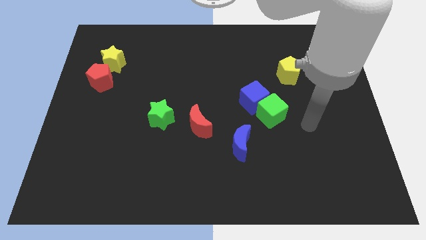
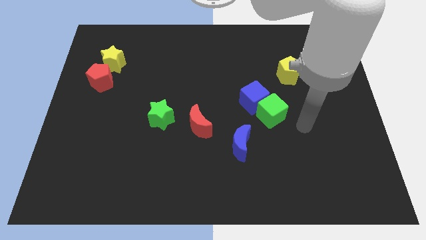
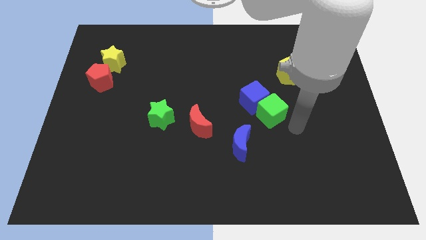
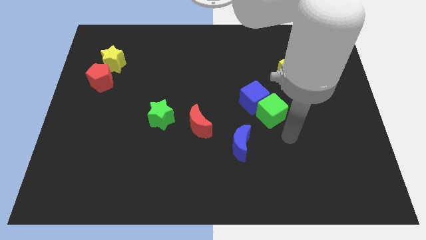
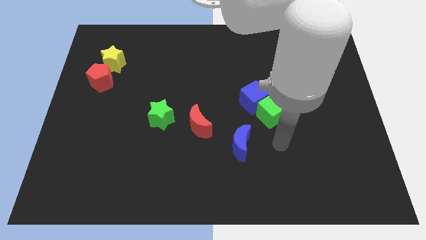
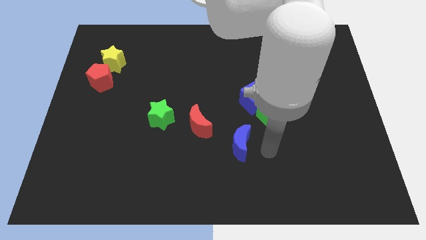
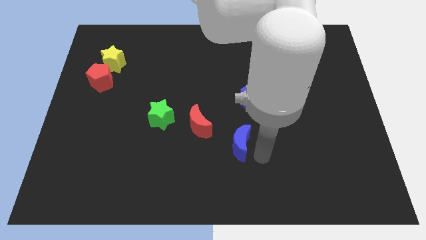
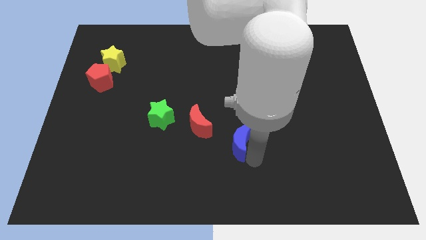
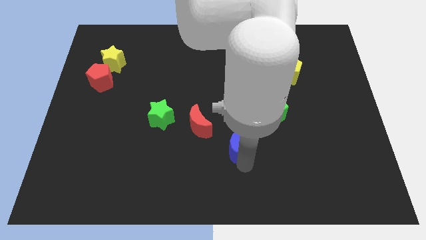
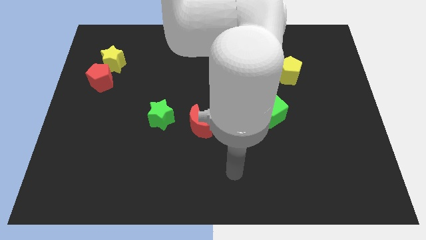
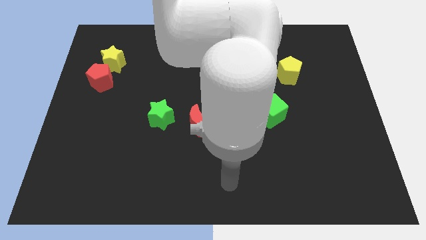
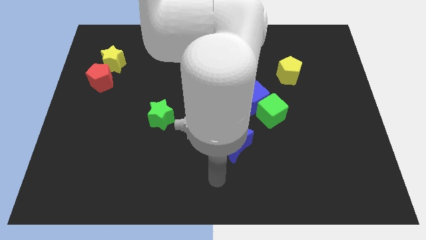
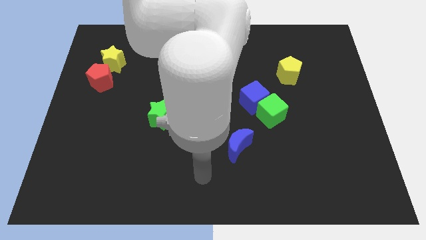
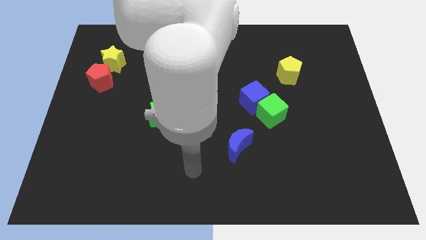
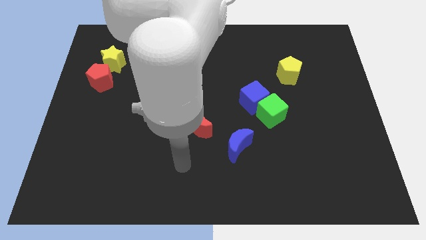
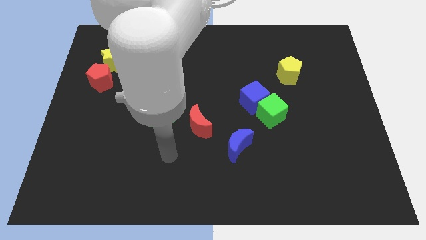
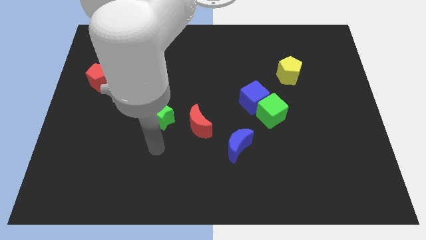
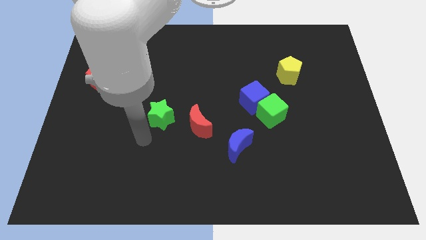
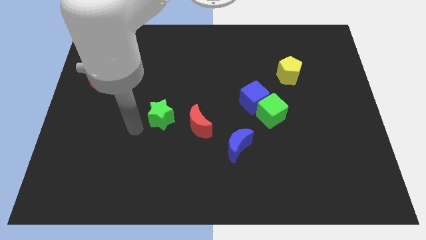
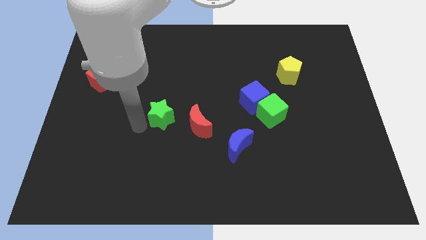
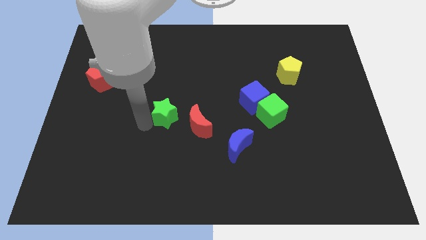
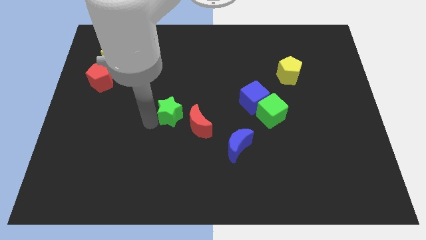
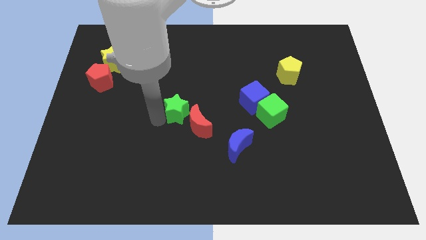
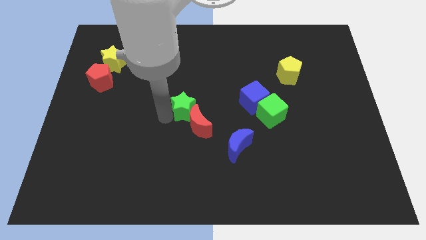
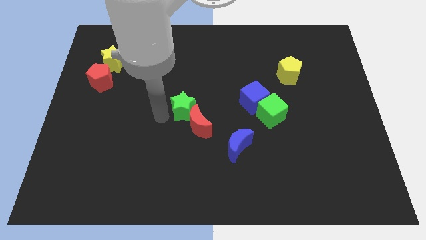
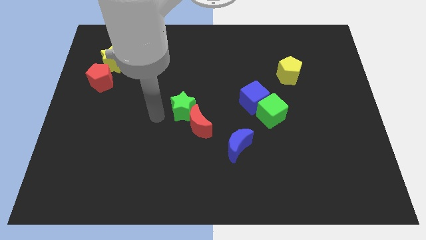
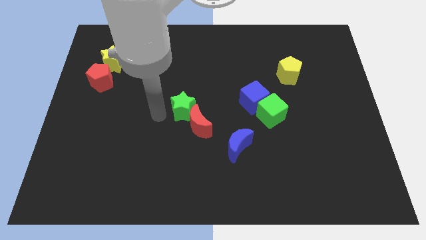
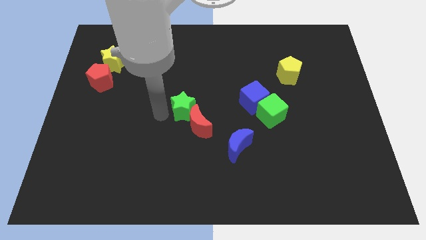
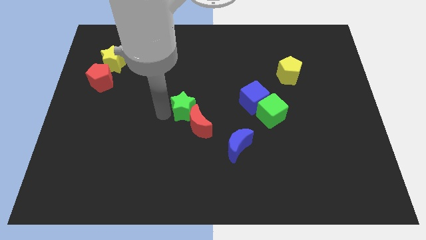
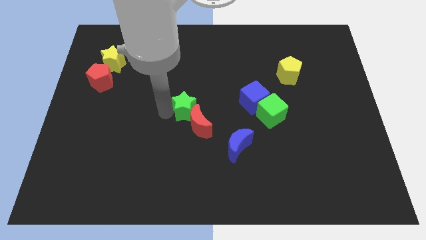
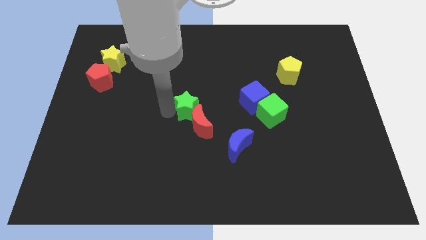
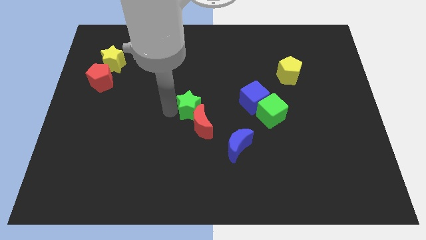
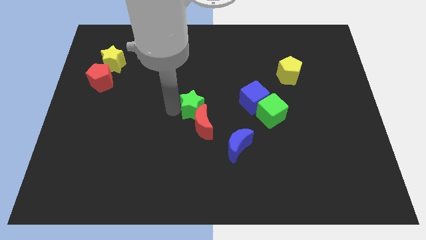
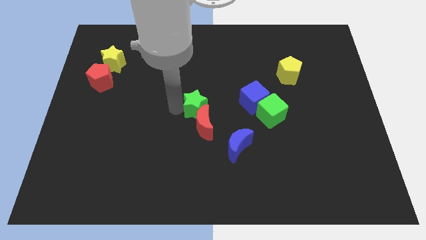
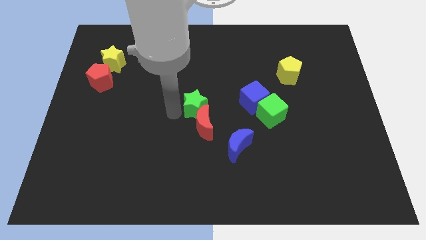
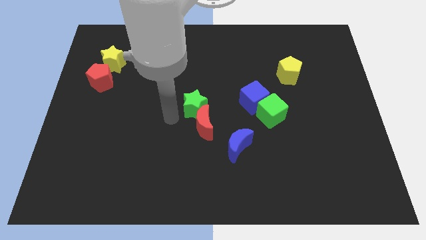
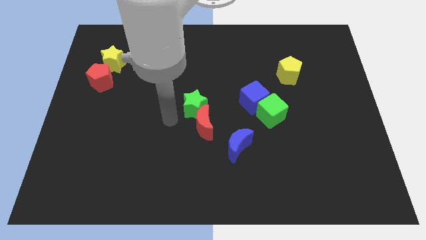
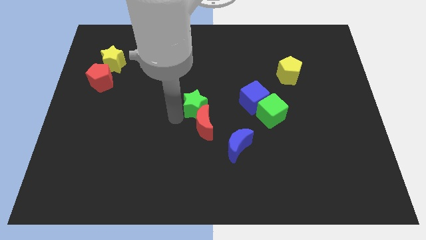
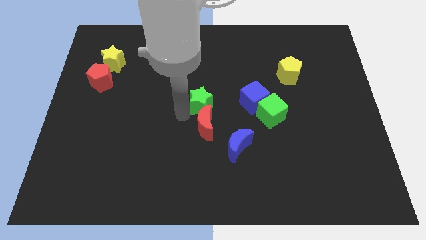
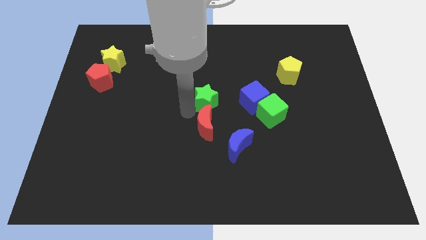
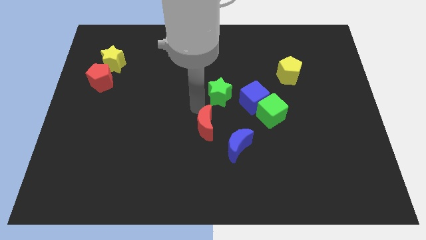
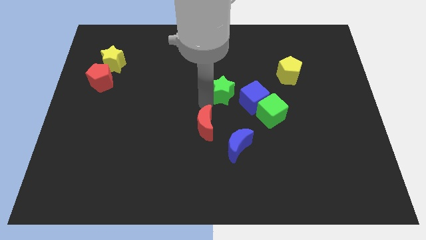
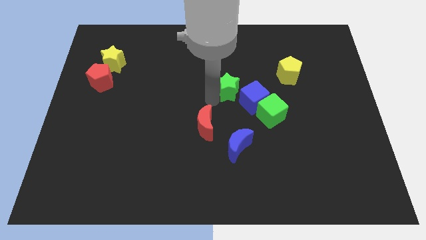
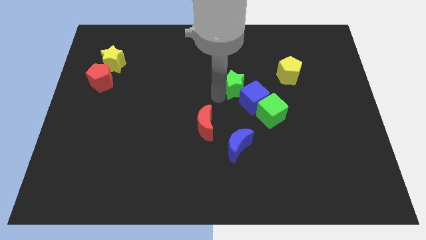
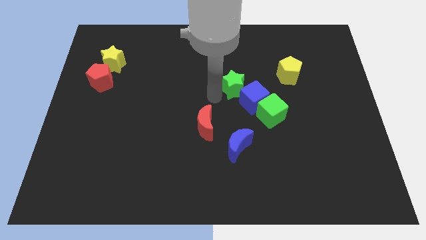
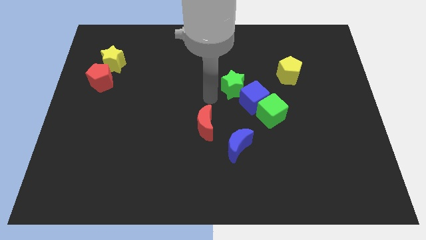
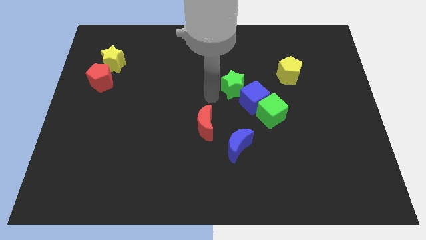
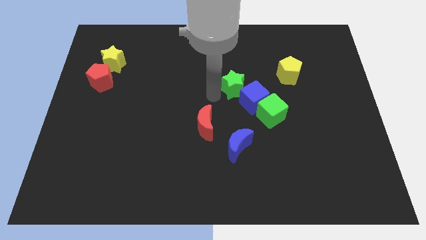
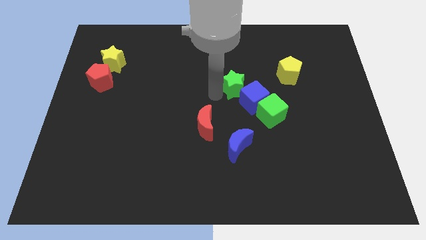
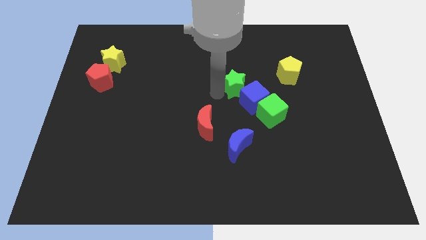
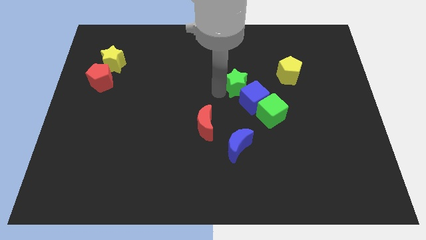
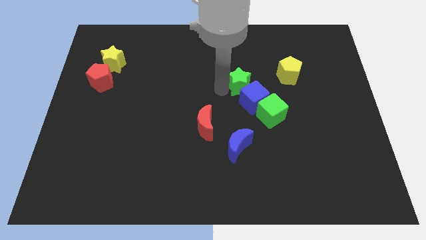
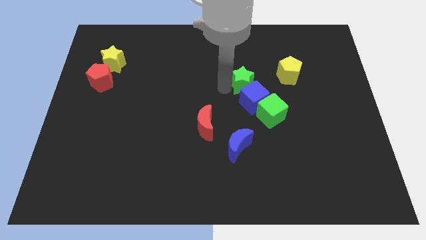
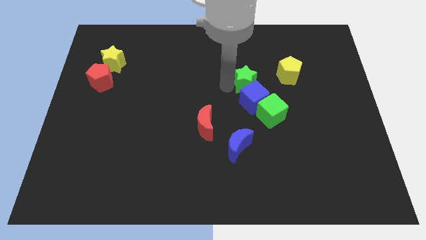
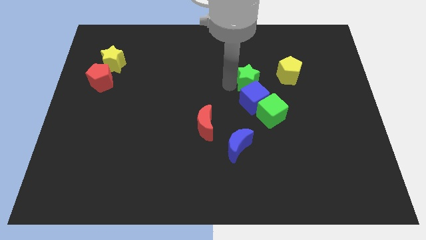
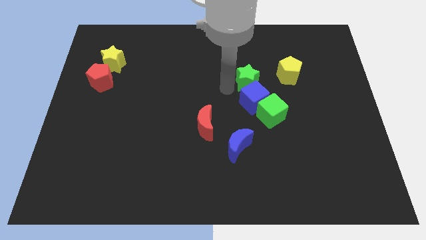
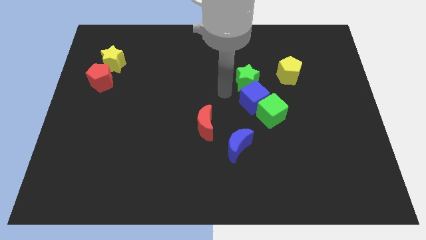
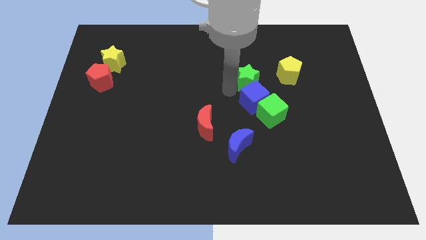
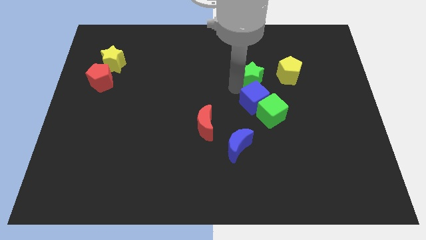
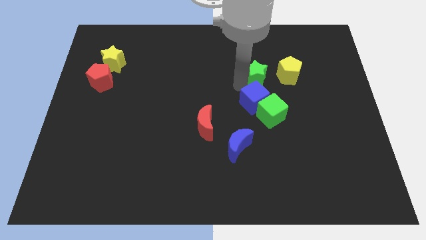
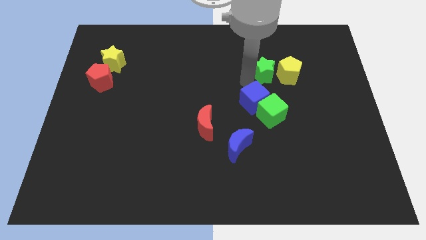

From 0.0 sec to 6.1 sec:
move the green star to the yellow pentagon

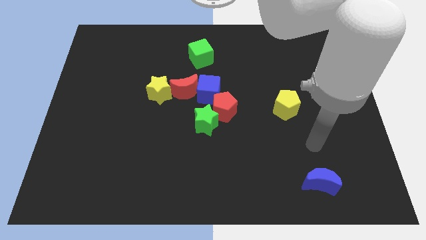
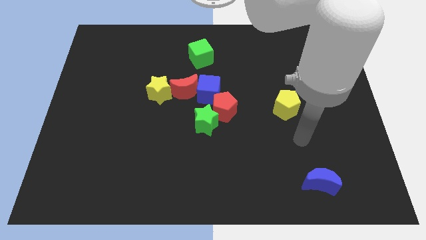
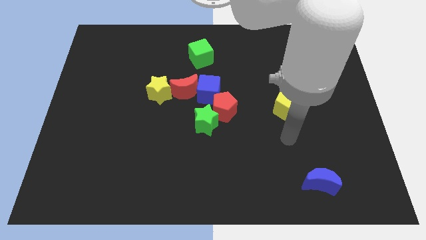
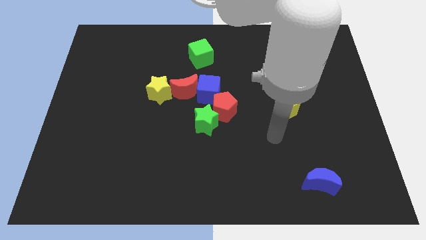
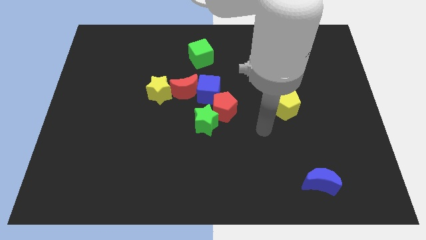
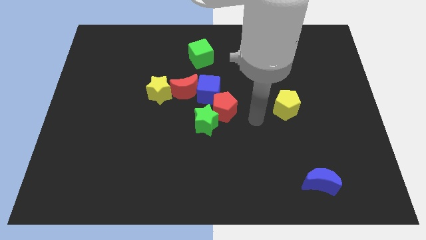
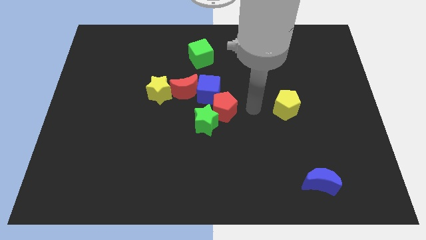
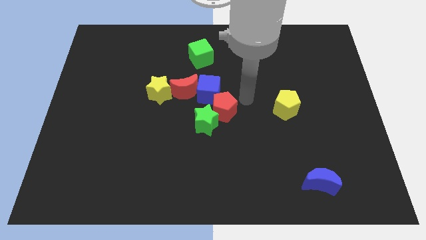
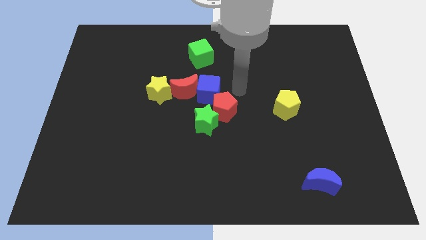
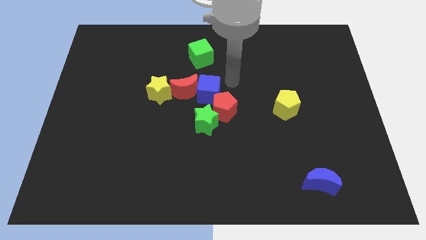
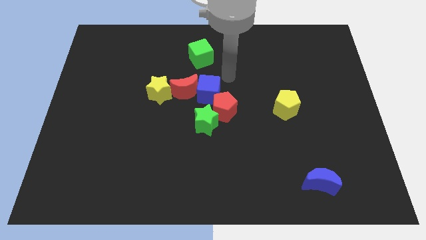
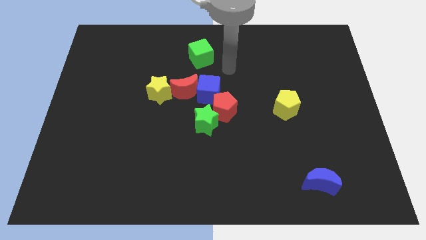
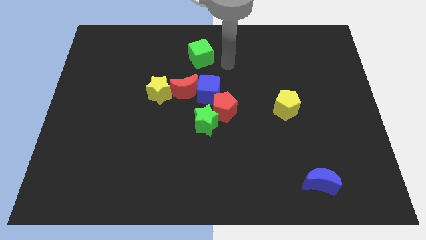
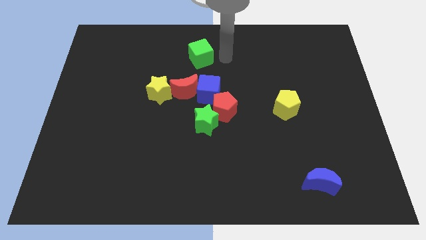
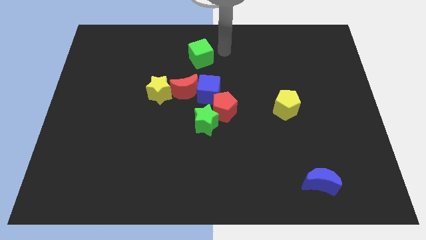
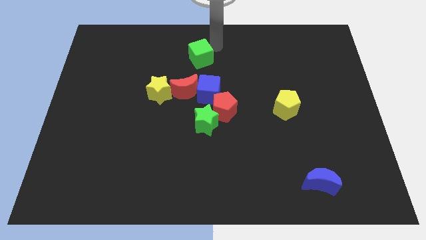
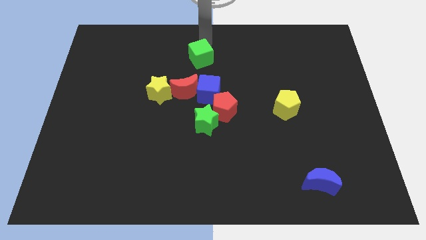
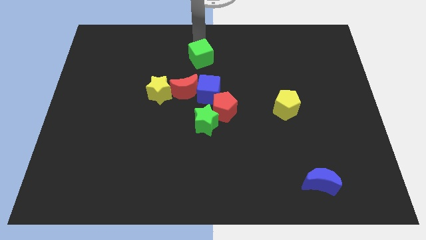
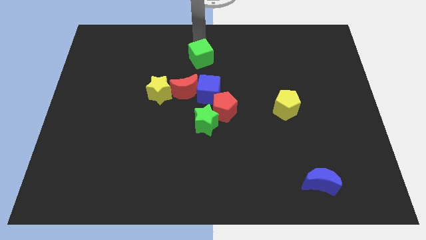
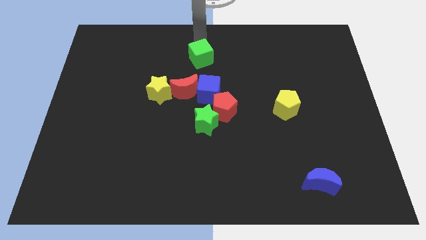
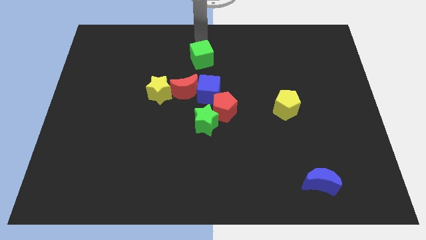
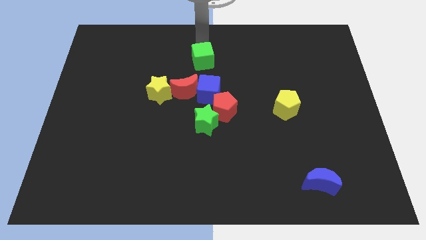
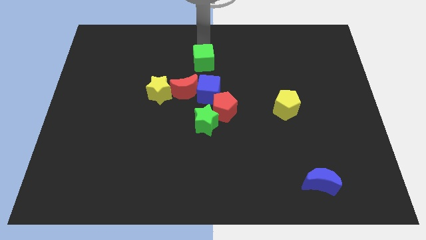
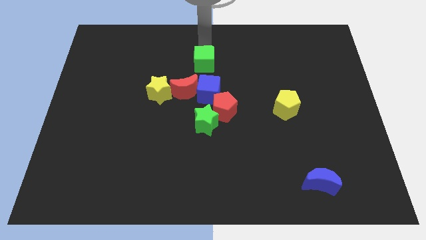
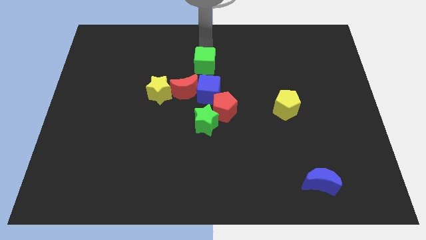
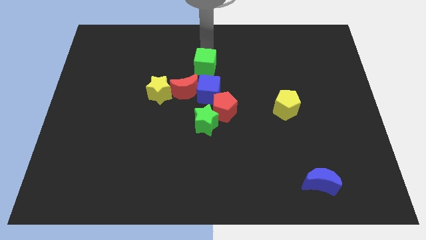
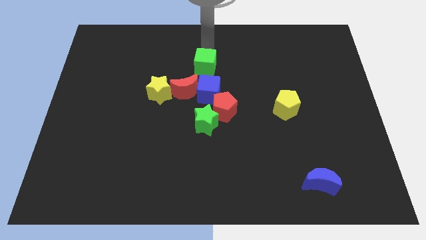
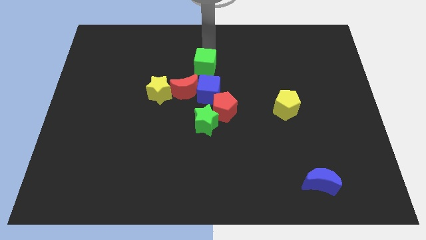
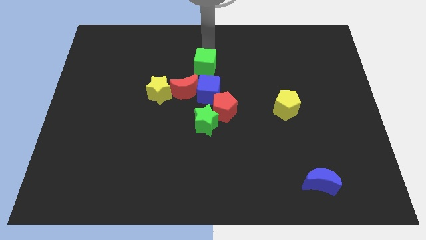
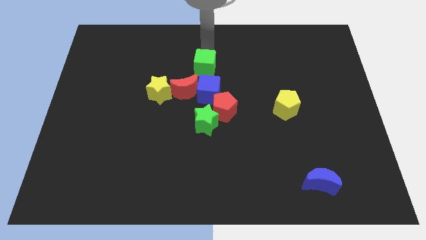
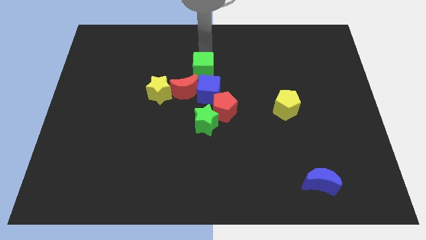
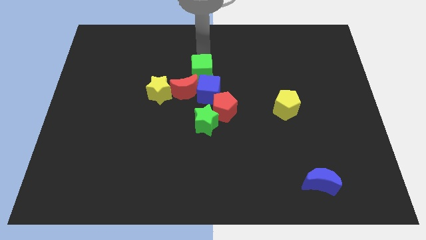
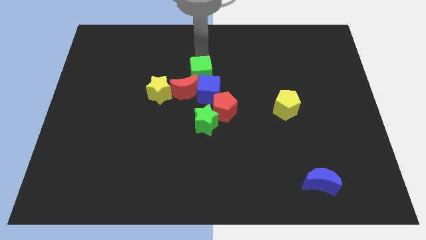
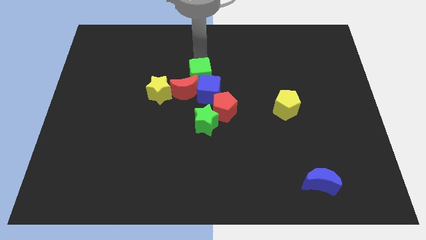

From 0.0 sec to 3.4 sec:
put the green cube next to the blue cube
